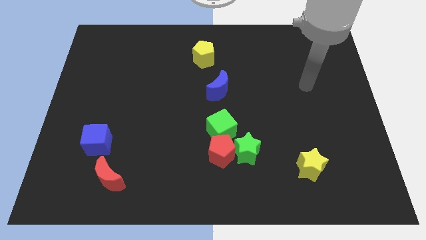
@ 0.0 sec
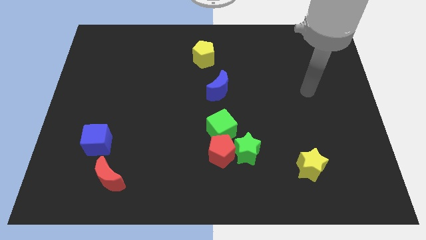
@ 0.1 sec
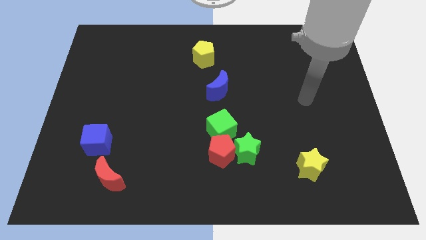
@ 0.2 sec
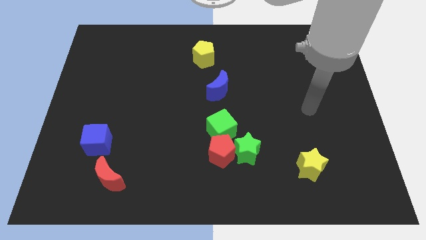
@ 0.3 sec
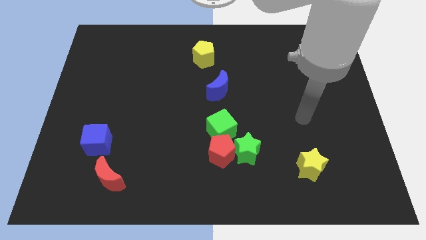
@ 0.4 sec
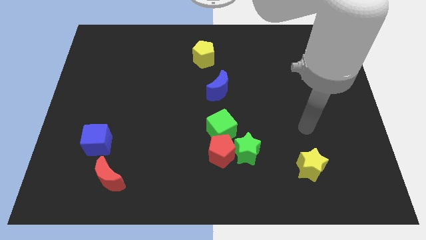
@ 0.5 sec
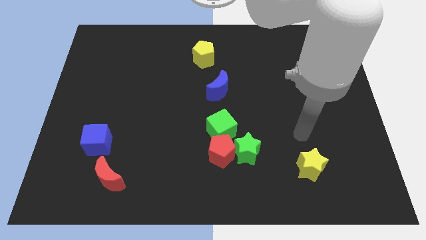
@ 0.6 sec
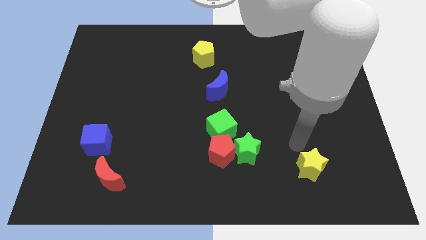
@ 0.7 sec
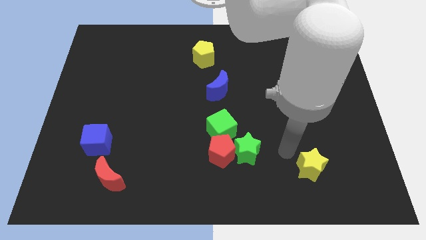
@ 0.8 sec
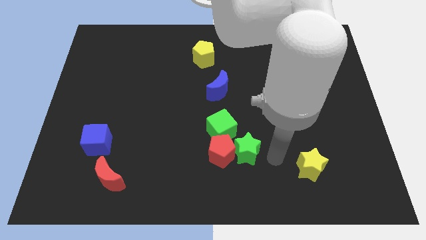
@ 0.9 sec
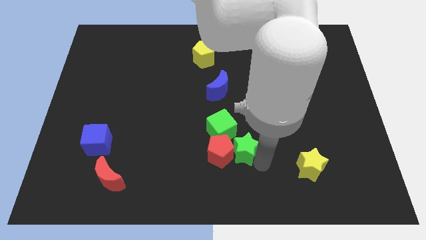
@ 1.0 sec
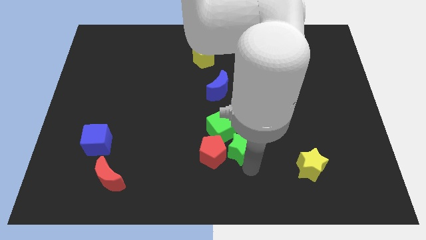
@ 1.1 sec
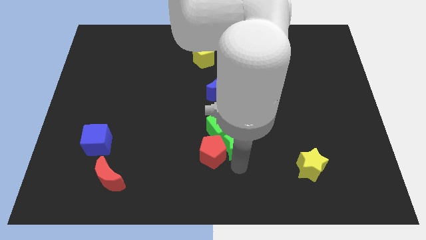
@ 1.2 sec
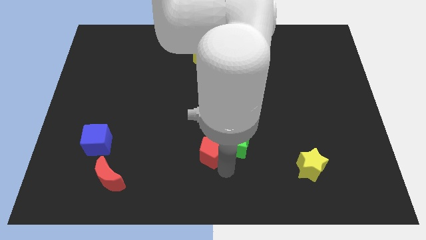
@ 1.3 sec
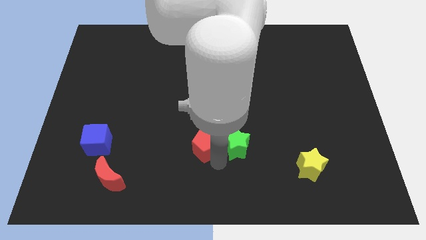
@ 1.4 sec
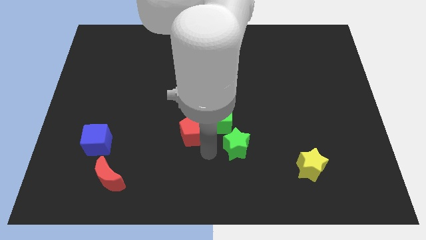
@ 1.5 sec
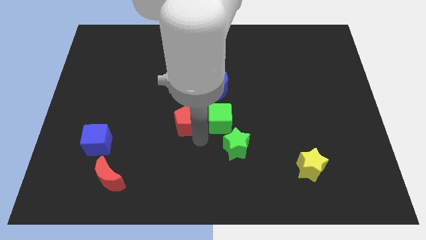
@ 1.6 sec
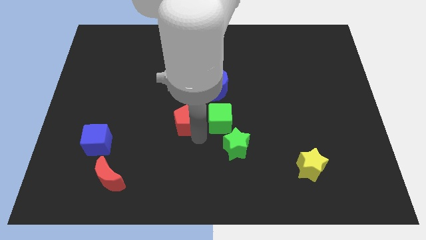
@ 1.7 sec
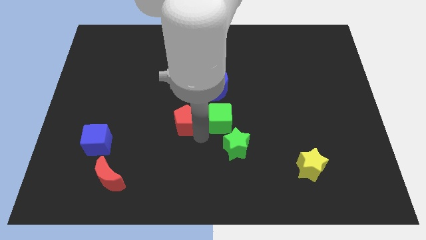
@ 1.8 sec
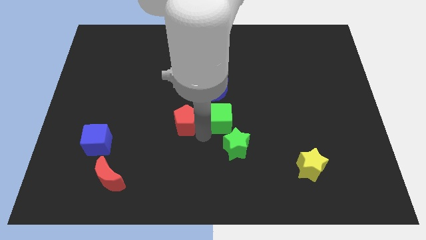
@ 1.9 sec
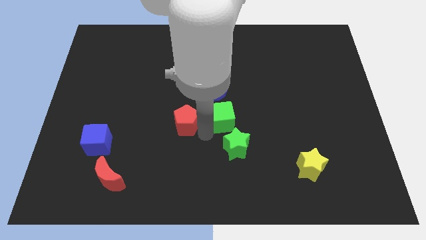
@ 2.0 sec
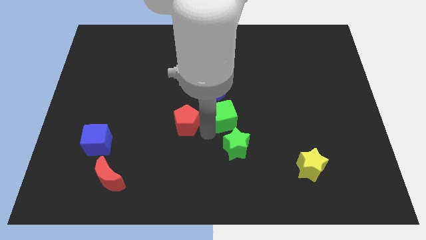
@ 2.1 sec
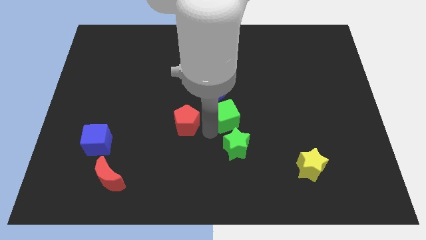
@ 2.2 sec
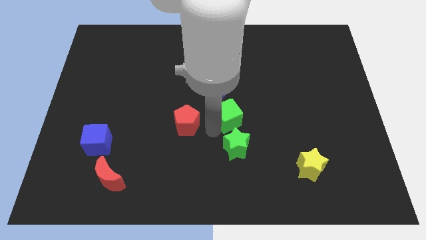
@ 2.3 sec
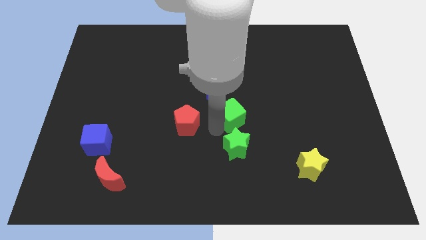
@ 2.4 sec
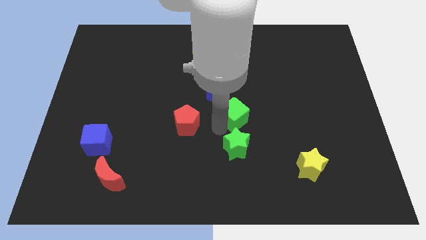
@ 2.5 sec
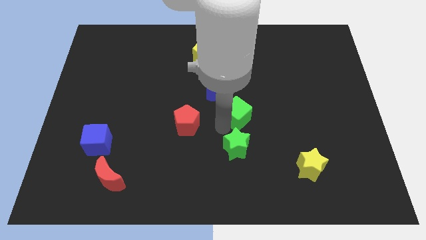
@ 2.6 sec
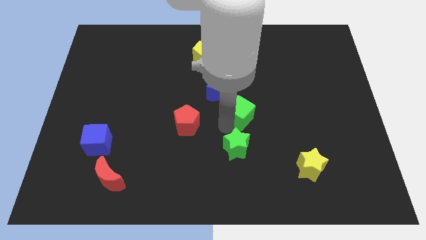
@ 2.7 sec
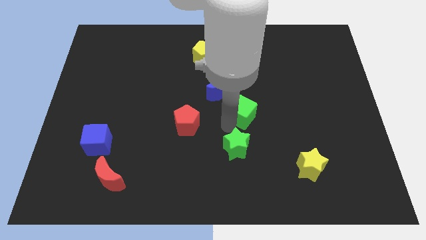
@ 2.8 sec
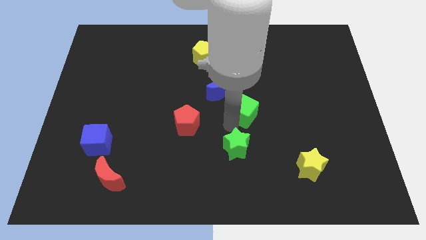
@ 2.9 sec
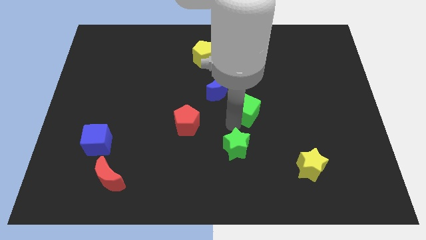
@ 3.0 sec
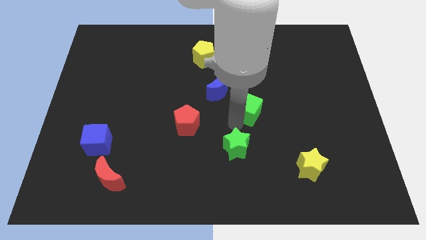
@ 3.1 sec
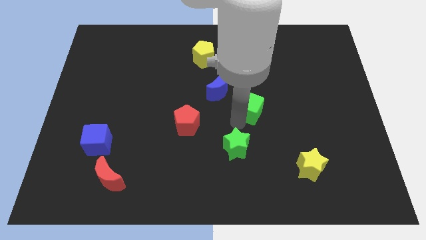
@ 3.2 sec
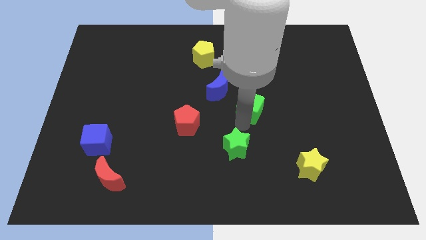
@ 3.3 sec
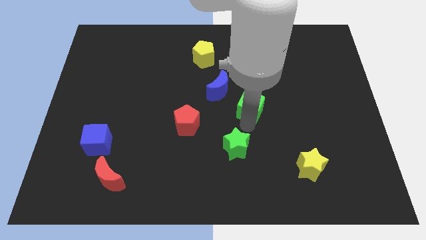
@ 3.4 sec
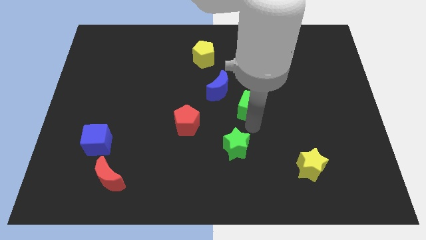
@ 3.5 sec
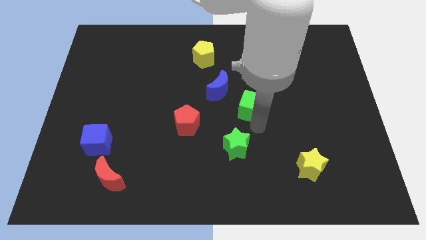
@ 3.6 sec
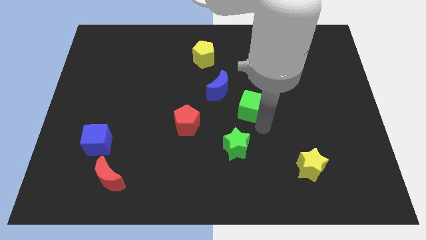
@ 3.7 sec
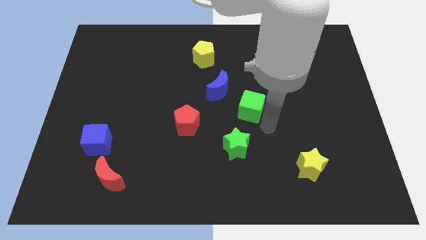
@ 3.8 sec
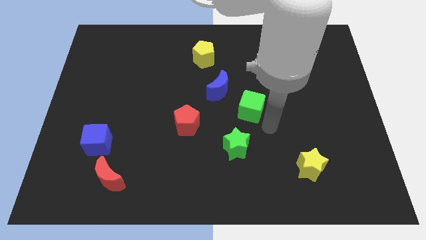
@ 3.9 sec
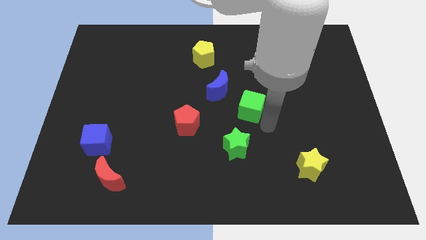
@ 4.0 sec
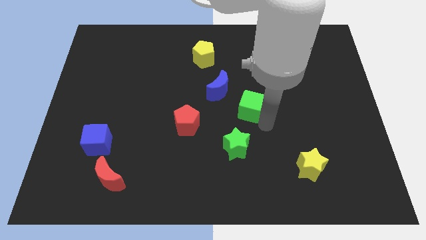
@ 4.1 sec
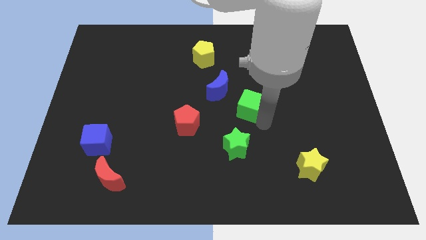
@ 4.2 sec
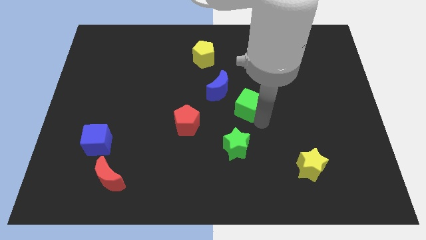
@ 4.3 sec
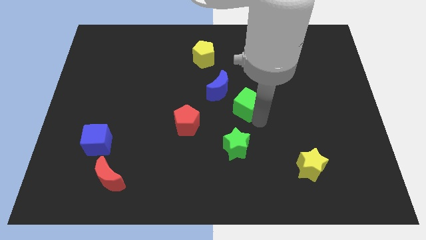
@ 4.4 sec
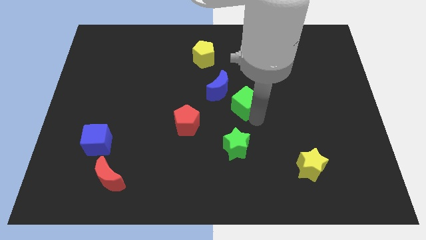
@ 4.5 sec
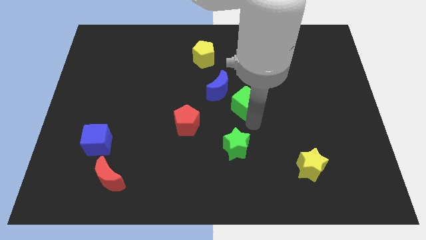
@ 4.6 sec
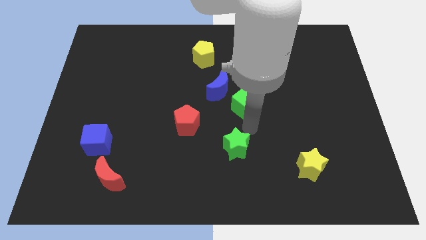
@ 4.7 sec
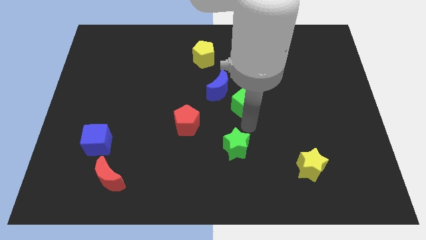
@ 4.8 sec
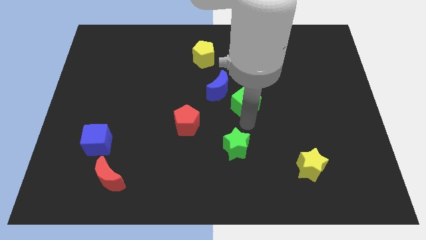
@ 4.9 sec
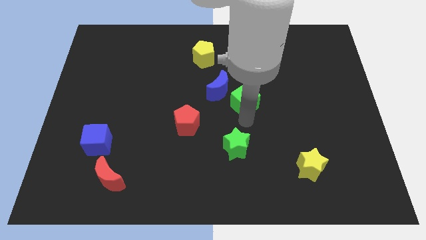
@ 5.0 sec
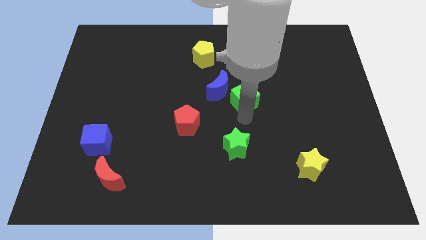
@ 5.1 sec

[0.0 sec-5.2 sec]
move the green cube up a little

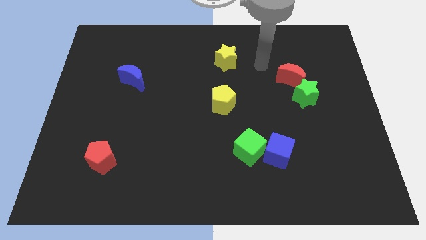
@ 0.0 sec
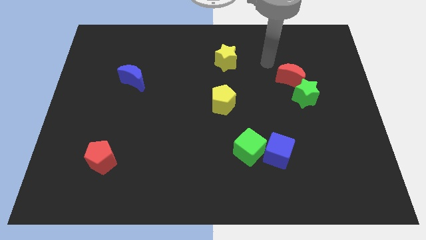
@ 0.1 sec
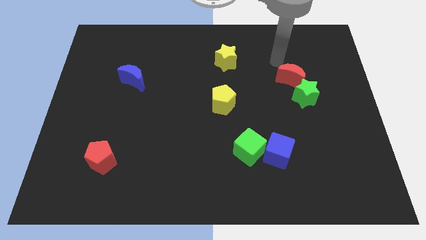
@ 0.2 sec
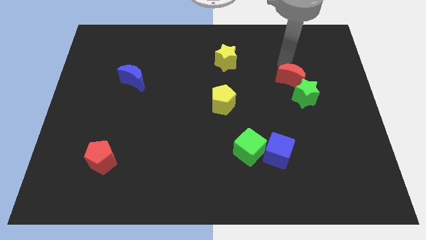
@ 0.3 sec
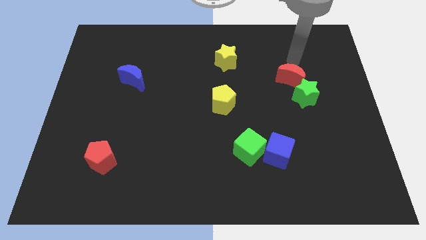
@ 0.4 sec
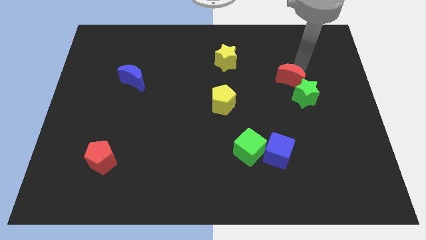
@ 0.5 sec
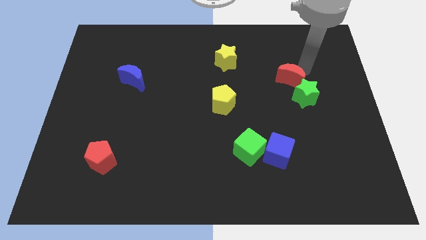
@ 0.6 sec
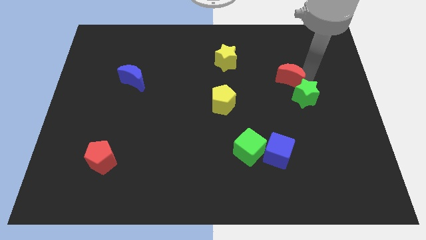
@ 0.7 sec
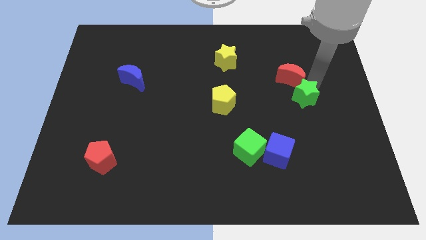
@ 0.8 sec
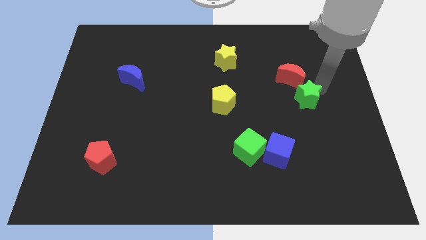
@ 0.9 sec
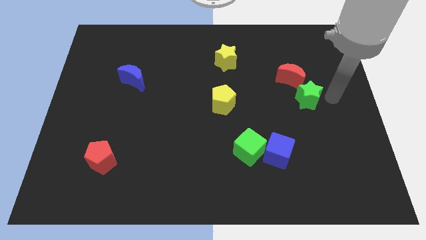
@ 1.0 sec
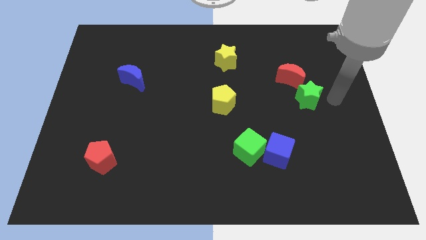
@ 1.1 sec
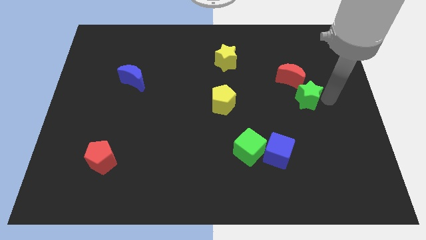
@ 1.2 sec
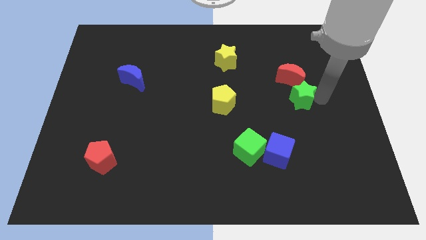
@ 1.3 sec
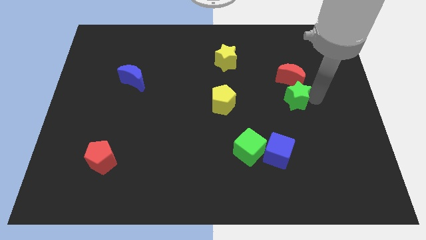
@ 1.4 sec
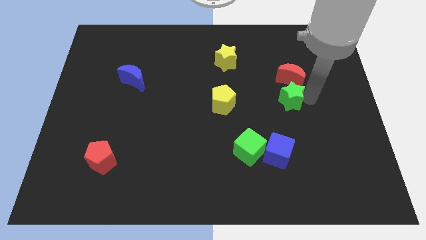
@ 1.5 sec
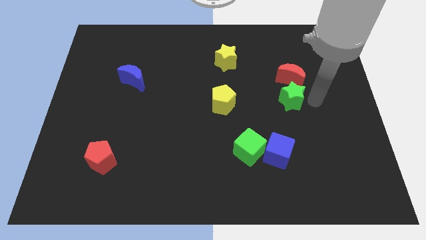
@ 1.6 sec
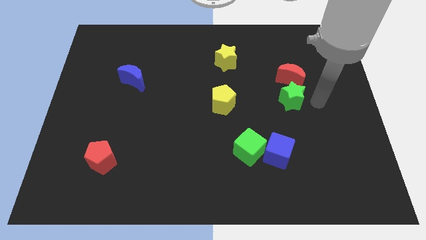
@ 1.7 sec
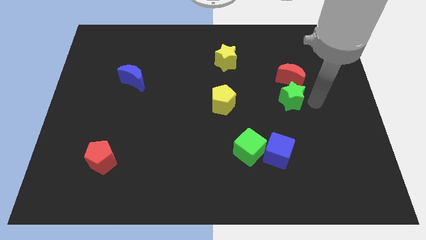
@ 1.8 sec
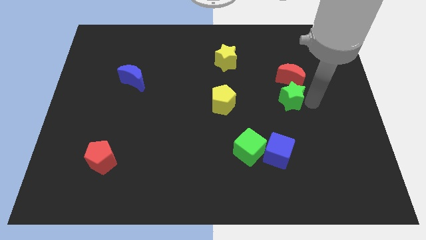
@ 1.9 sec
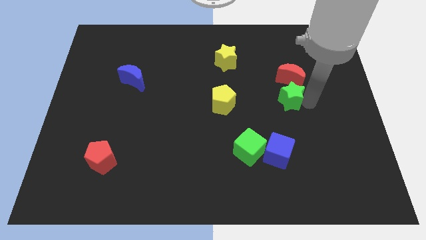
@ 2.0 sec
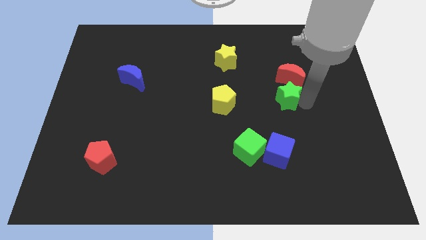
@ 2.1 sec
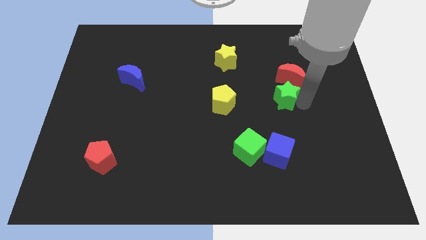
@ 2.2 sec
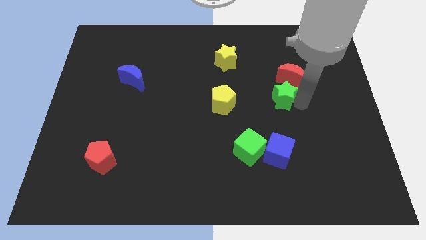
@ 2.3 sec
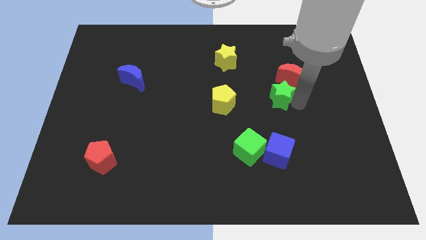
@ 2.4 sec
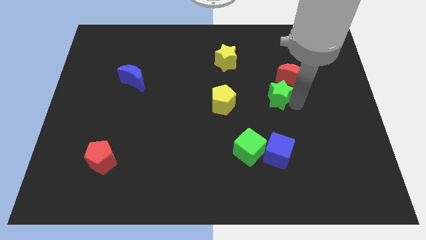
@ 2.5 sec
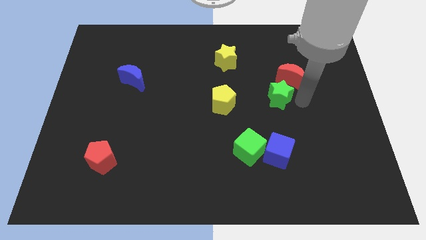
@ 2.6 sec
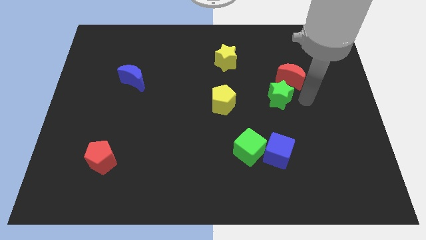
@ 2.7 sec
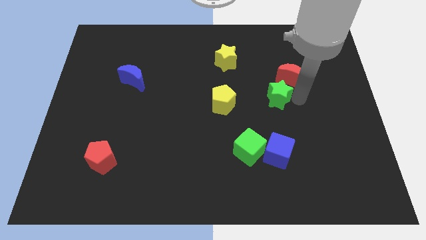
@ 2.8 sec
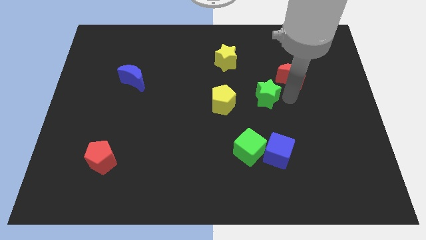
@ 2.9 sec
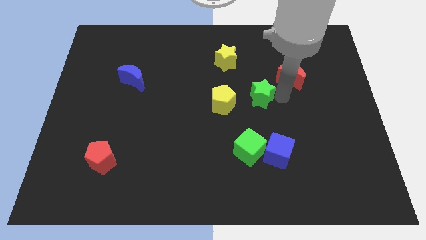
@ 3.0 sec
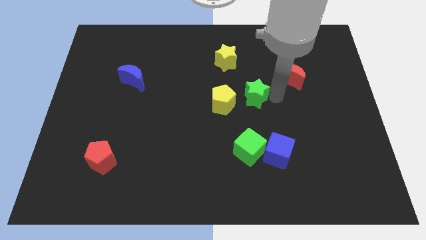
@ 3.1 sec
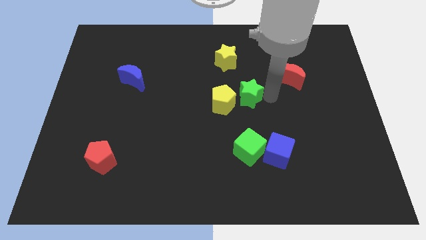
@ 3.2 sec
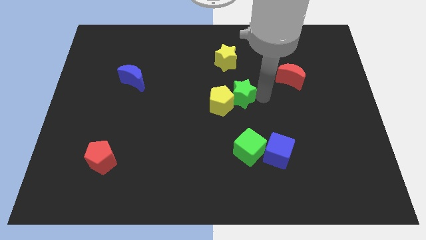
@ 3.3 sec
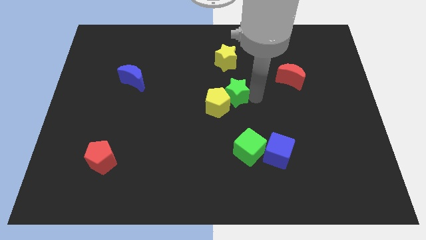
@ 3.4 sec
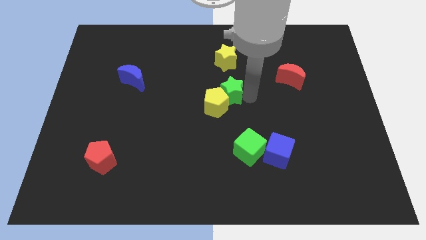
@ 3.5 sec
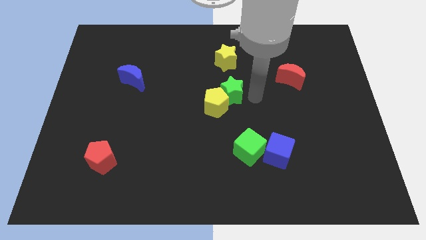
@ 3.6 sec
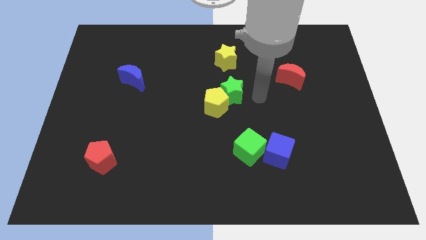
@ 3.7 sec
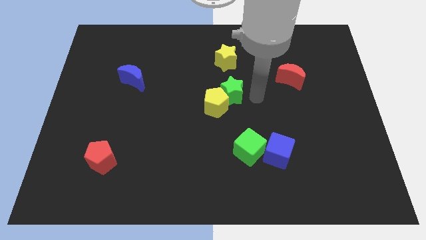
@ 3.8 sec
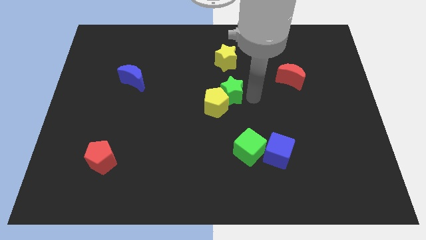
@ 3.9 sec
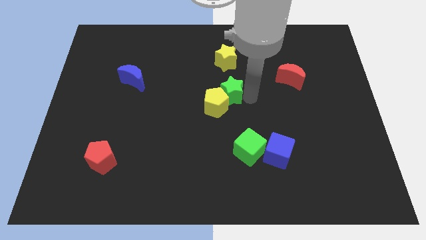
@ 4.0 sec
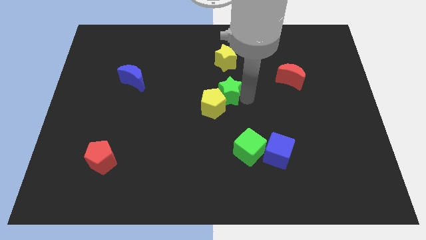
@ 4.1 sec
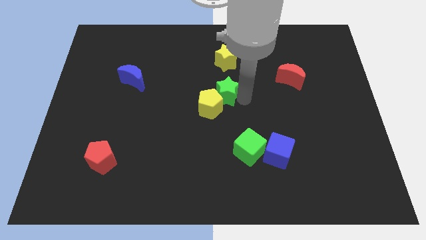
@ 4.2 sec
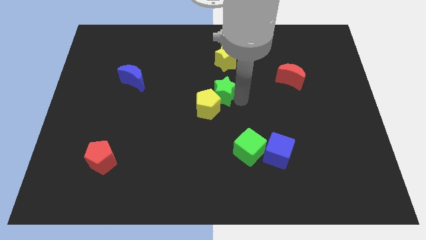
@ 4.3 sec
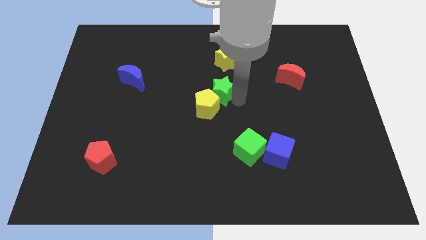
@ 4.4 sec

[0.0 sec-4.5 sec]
push the green star to the left
